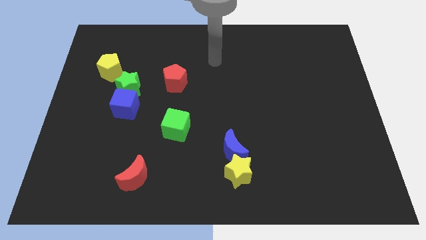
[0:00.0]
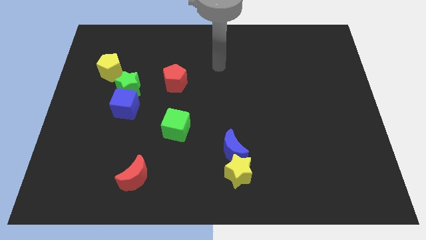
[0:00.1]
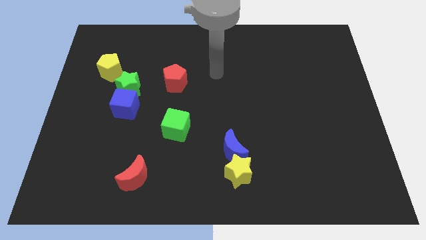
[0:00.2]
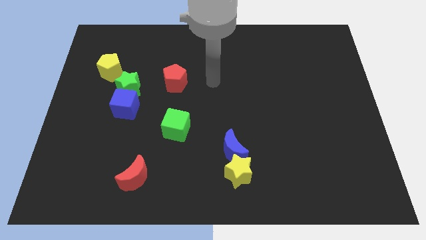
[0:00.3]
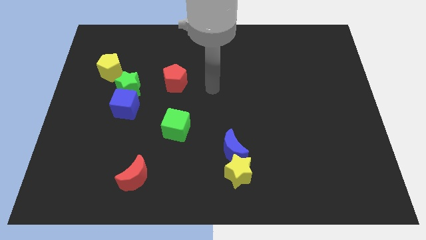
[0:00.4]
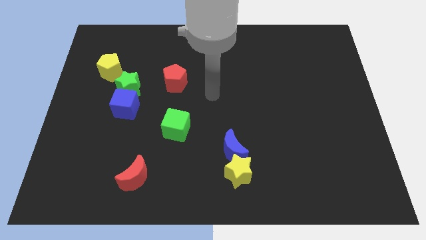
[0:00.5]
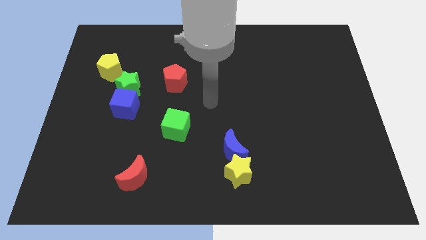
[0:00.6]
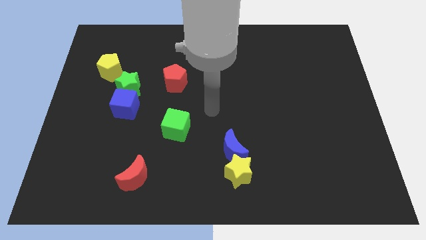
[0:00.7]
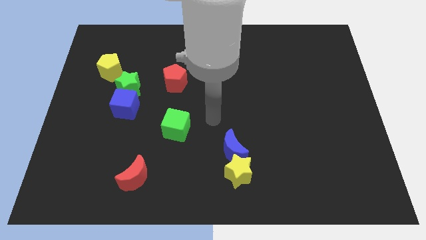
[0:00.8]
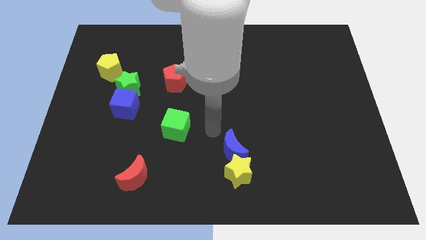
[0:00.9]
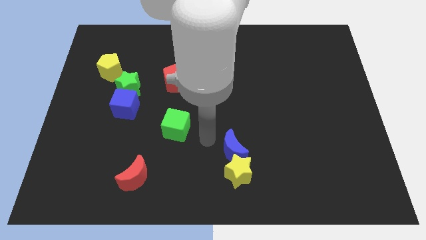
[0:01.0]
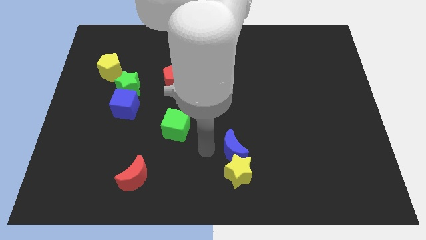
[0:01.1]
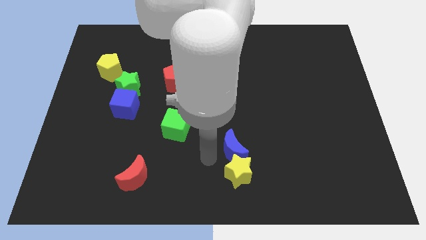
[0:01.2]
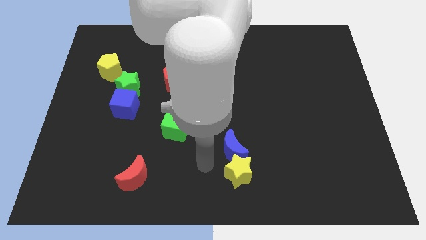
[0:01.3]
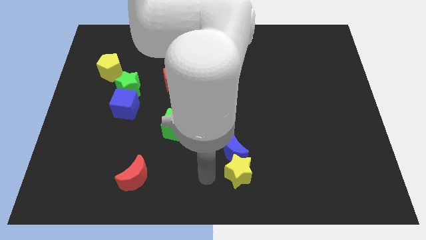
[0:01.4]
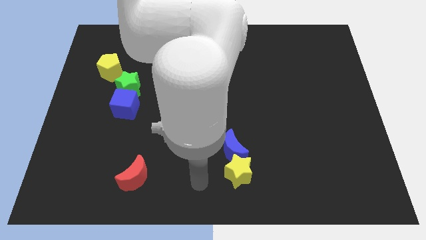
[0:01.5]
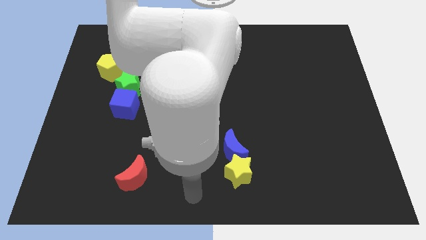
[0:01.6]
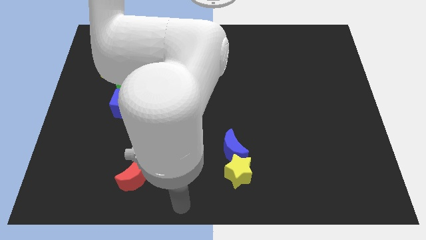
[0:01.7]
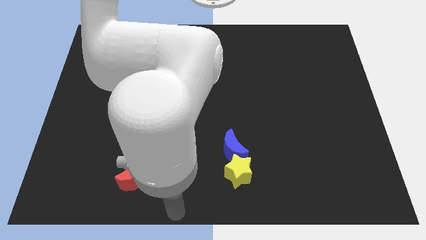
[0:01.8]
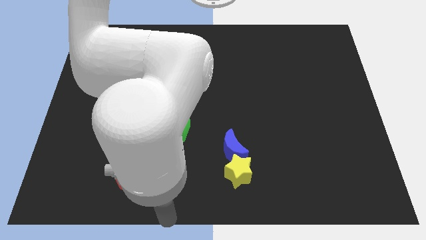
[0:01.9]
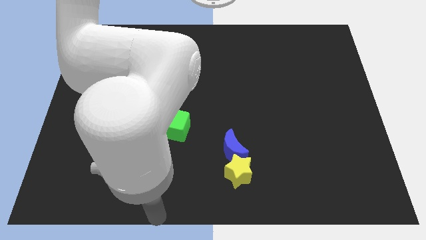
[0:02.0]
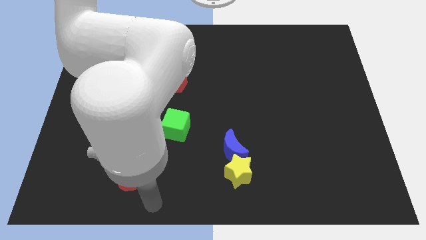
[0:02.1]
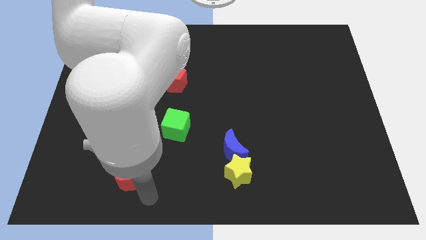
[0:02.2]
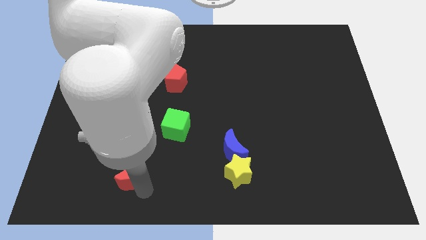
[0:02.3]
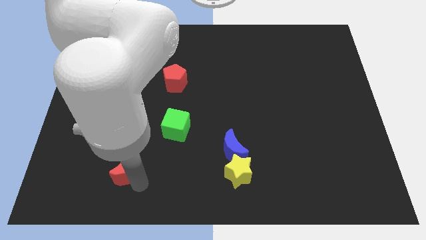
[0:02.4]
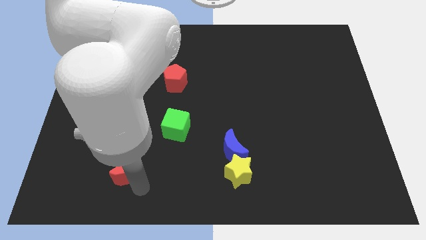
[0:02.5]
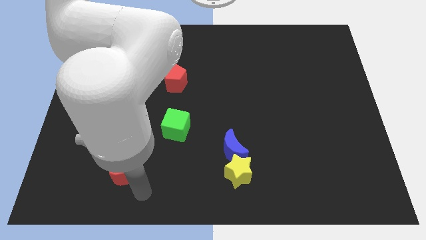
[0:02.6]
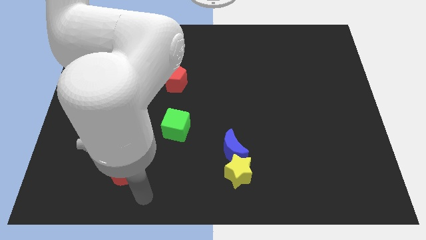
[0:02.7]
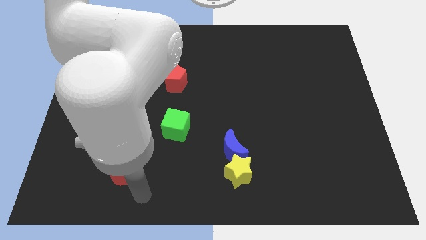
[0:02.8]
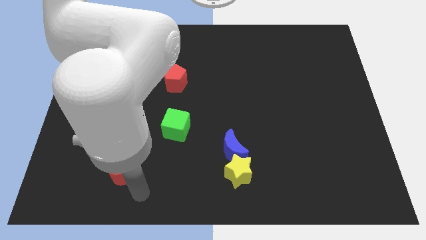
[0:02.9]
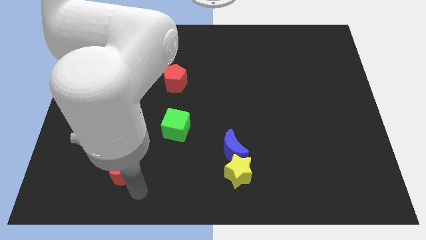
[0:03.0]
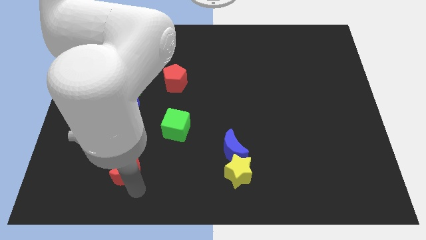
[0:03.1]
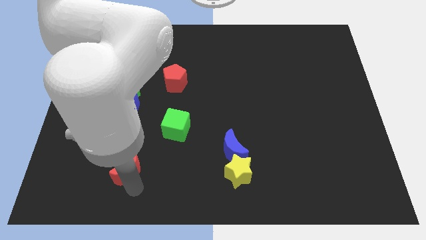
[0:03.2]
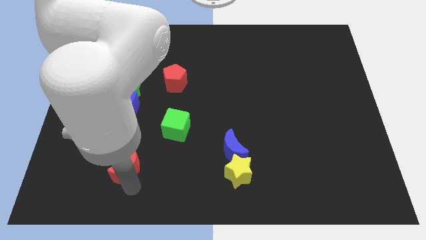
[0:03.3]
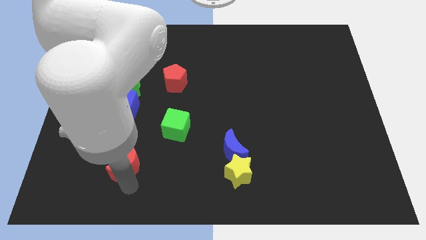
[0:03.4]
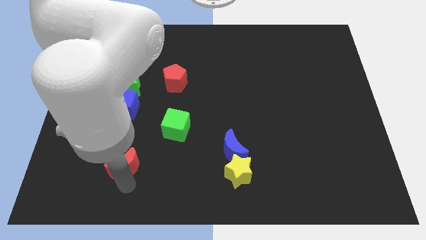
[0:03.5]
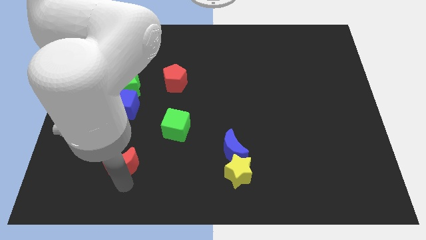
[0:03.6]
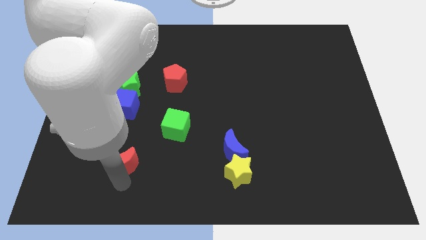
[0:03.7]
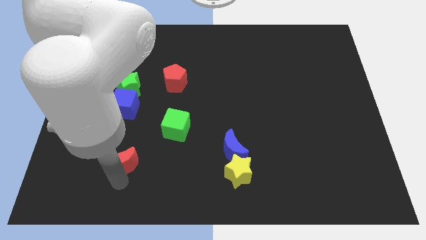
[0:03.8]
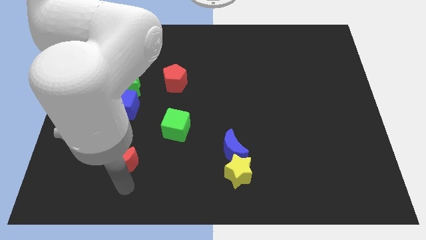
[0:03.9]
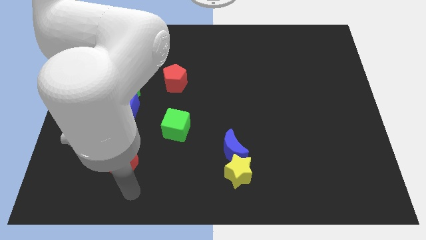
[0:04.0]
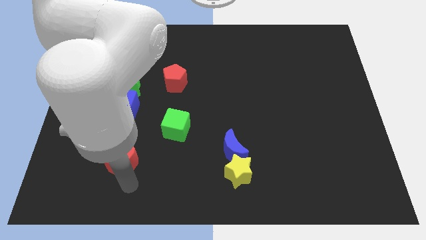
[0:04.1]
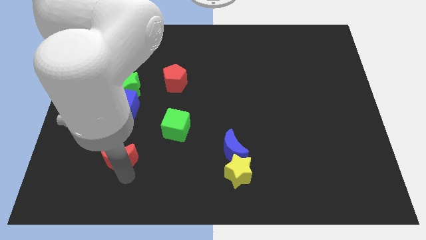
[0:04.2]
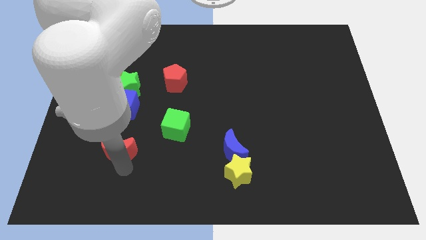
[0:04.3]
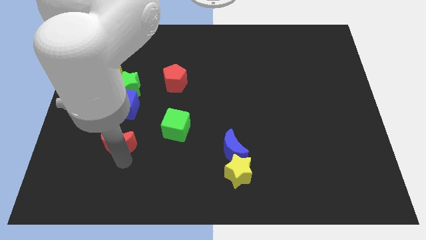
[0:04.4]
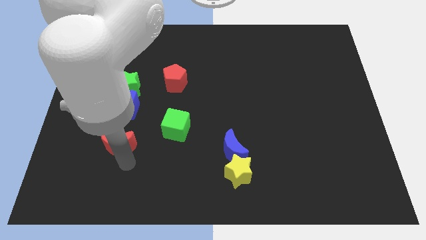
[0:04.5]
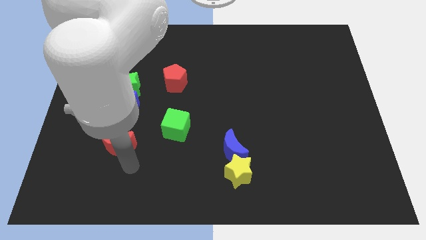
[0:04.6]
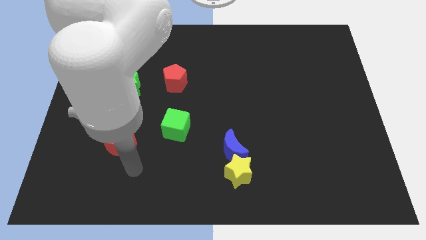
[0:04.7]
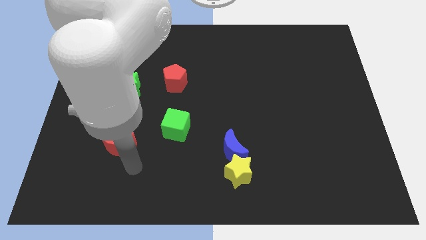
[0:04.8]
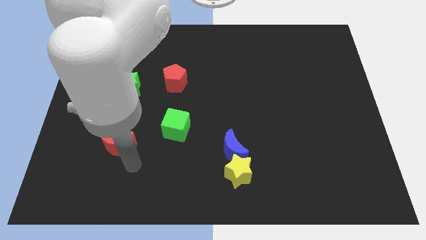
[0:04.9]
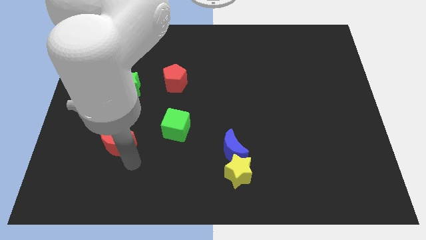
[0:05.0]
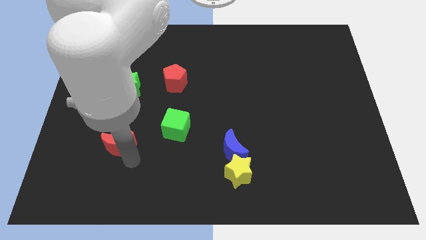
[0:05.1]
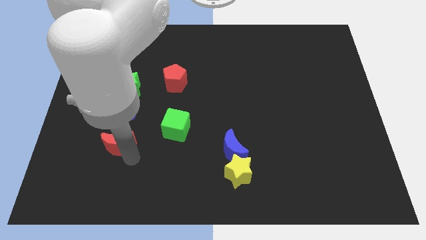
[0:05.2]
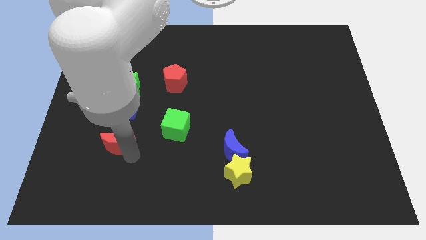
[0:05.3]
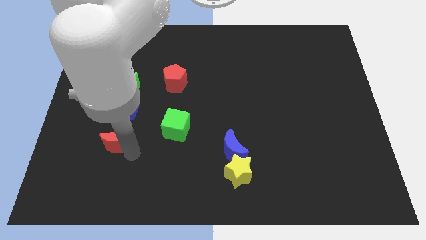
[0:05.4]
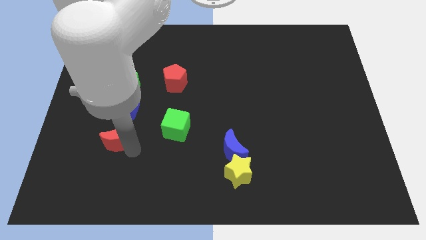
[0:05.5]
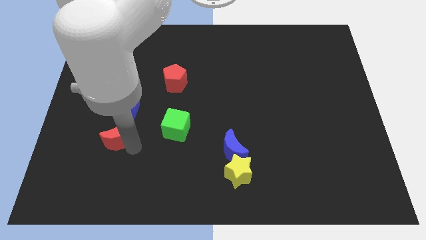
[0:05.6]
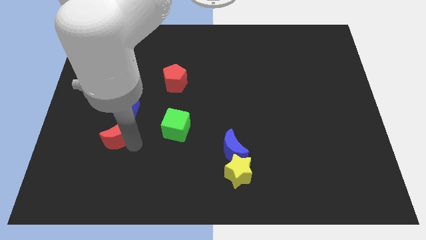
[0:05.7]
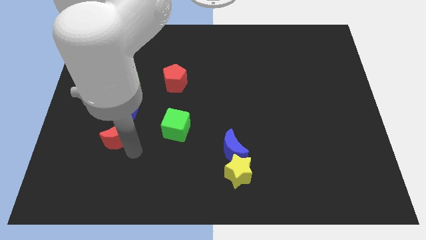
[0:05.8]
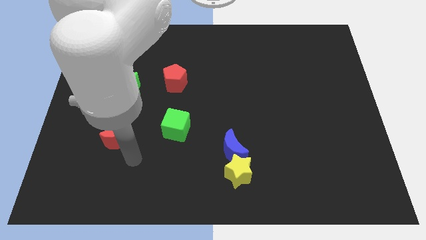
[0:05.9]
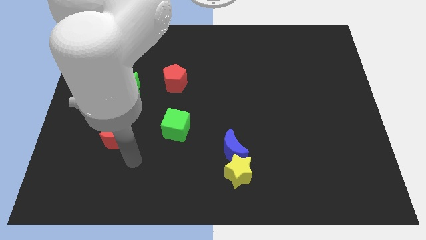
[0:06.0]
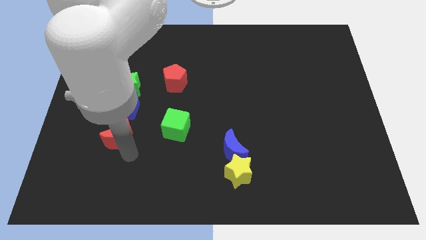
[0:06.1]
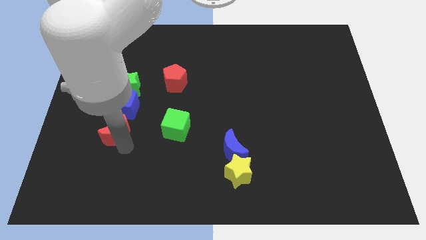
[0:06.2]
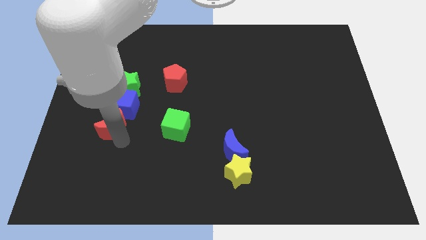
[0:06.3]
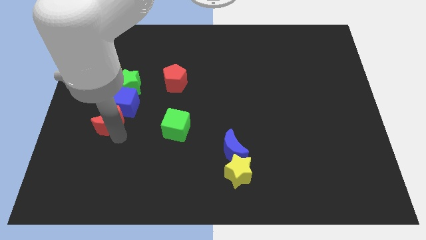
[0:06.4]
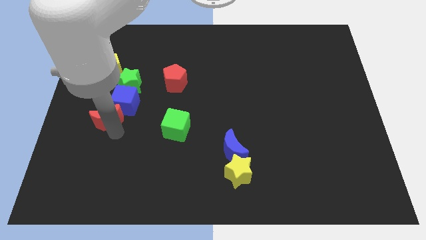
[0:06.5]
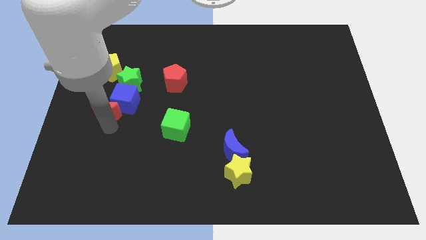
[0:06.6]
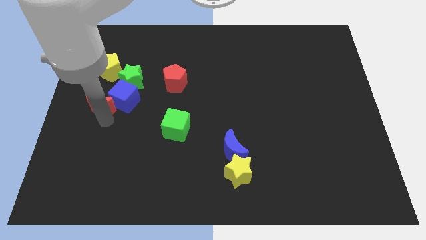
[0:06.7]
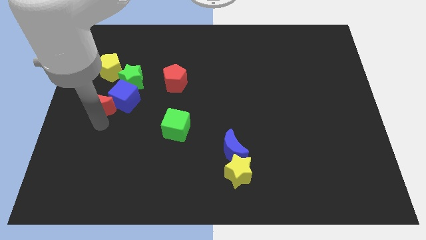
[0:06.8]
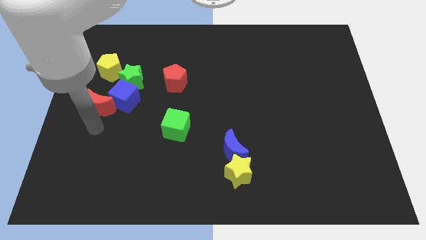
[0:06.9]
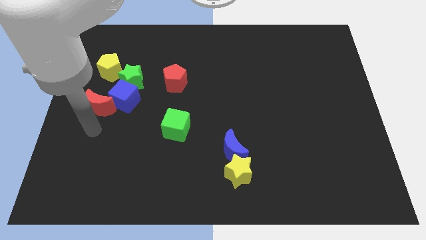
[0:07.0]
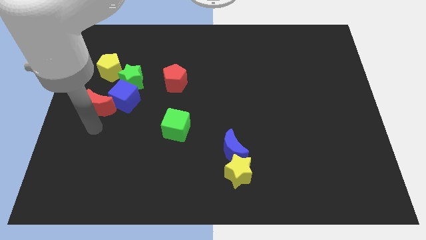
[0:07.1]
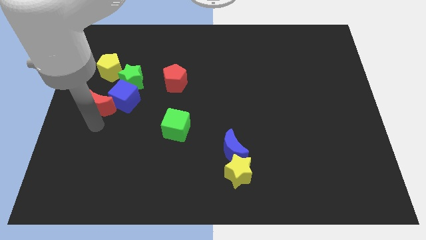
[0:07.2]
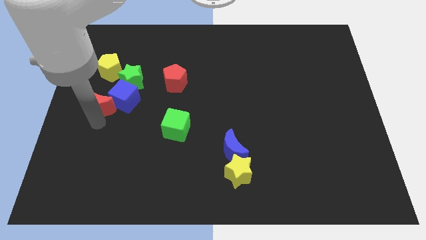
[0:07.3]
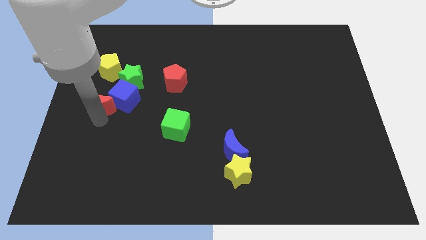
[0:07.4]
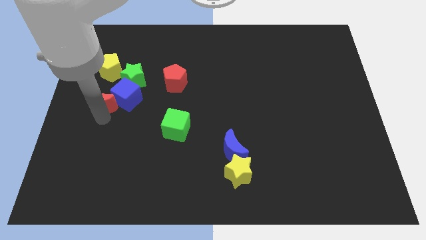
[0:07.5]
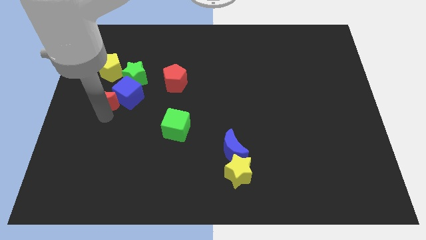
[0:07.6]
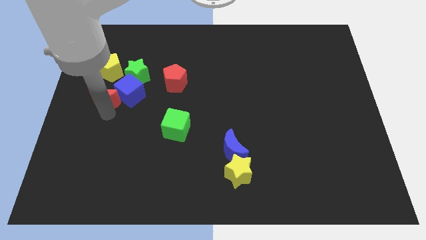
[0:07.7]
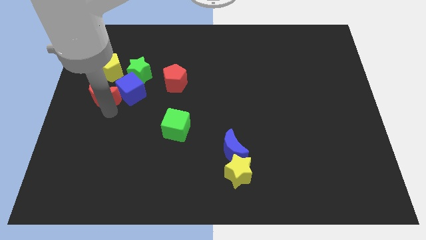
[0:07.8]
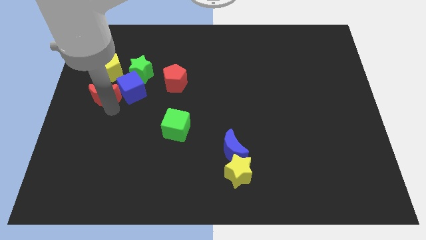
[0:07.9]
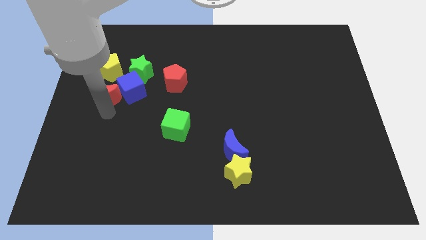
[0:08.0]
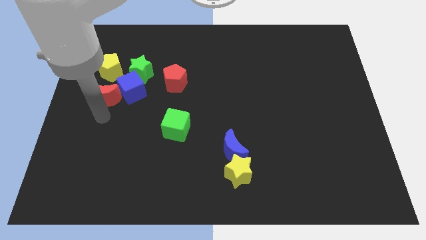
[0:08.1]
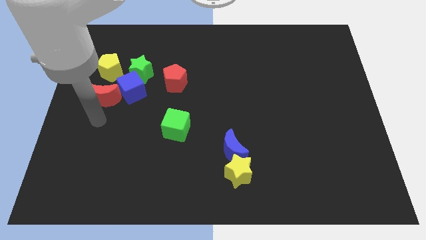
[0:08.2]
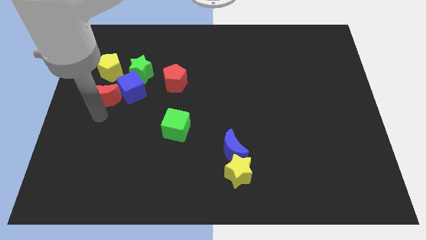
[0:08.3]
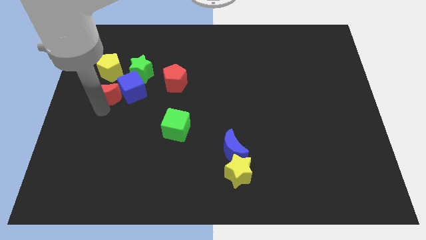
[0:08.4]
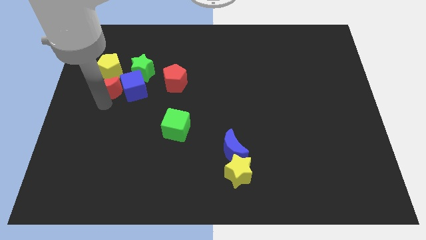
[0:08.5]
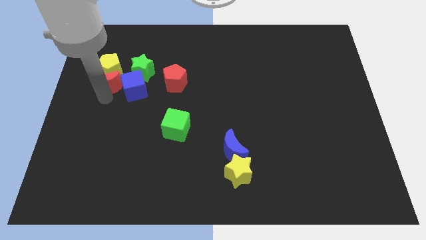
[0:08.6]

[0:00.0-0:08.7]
put the red moon to the top left of the blue cube
